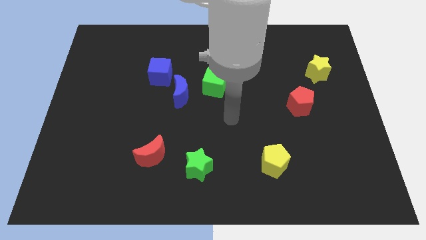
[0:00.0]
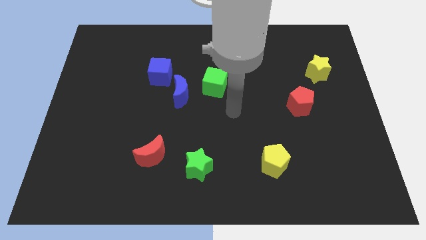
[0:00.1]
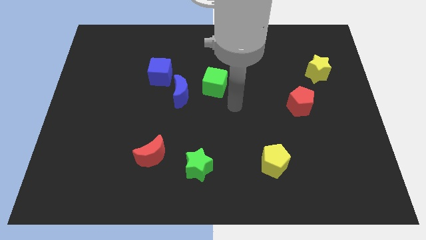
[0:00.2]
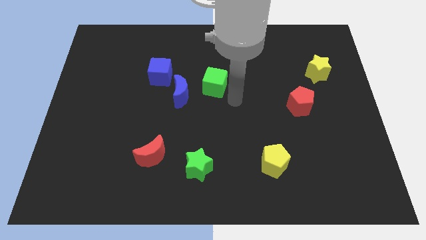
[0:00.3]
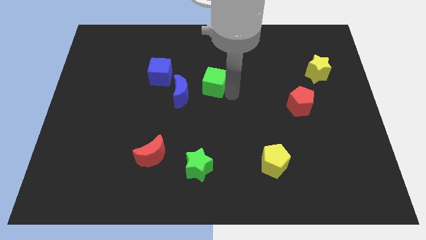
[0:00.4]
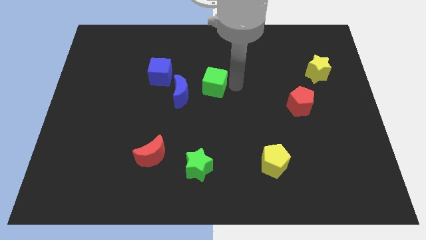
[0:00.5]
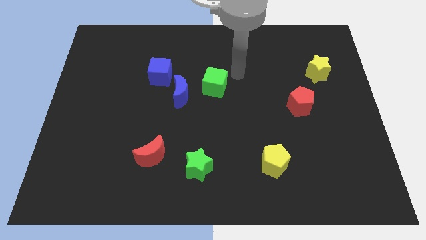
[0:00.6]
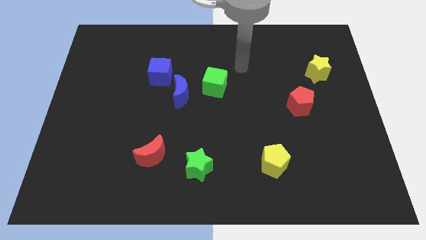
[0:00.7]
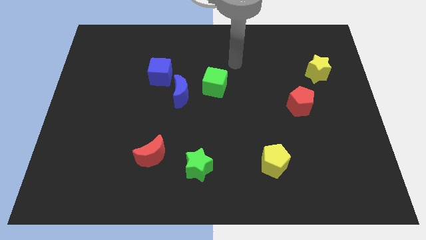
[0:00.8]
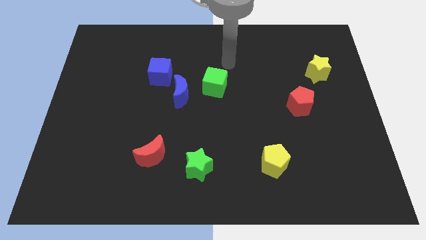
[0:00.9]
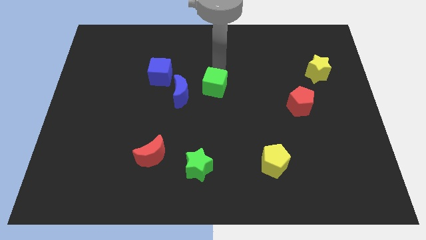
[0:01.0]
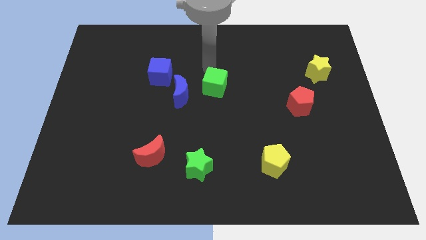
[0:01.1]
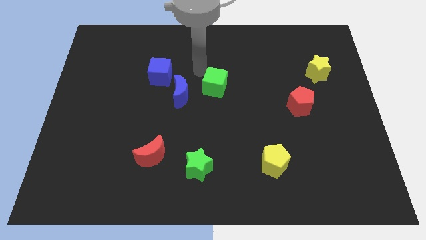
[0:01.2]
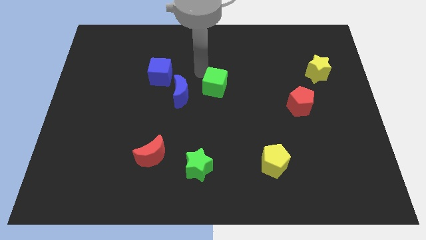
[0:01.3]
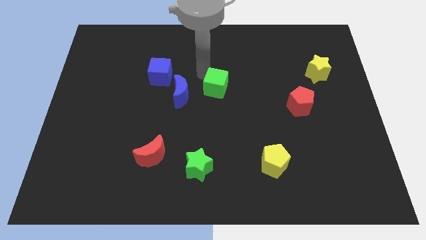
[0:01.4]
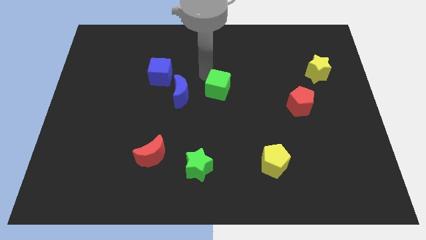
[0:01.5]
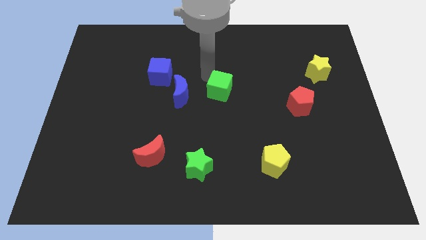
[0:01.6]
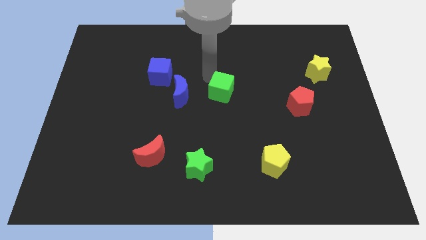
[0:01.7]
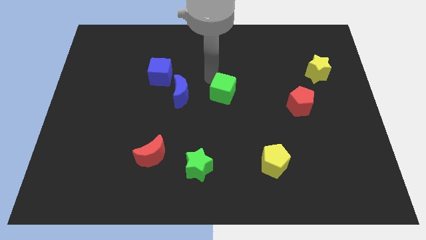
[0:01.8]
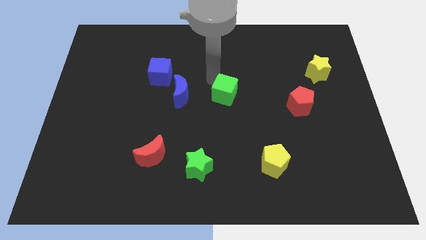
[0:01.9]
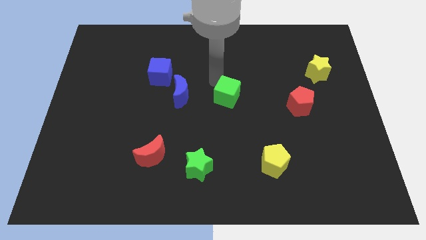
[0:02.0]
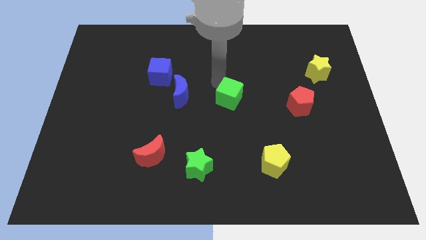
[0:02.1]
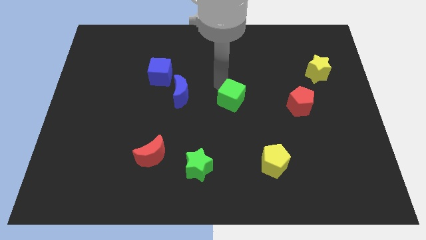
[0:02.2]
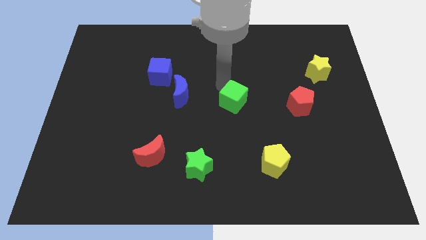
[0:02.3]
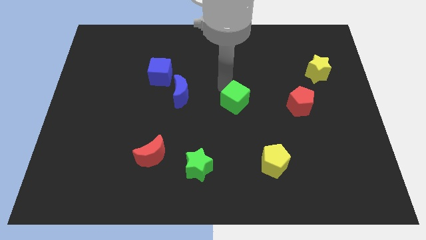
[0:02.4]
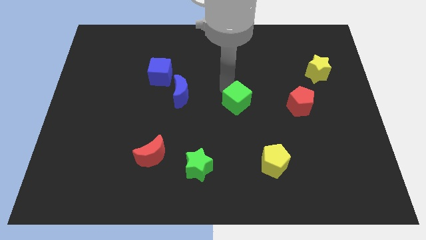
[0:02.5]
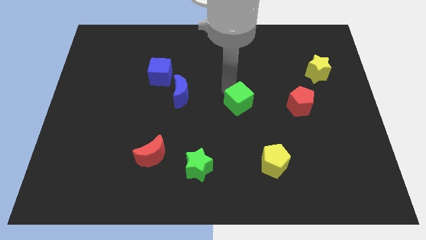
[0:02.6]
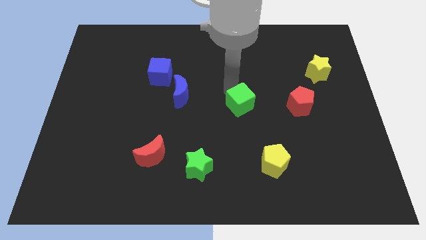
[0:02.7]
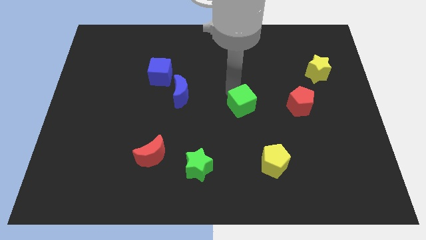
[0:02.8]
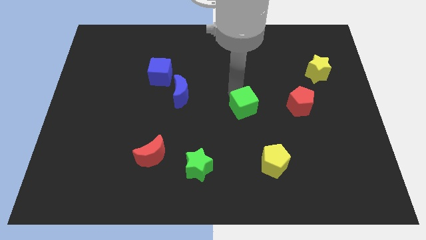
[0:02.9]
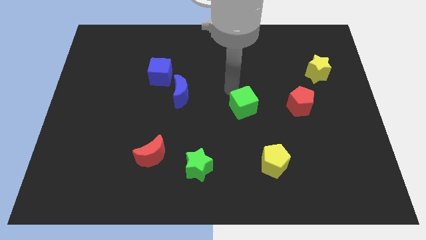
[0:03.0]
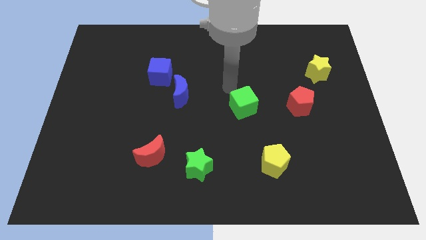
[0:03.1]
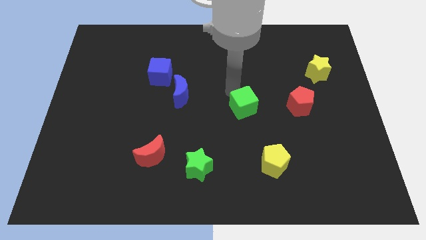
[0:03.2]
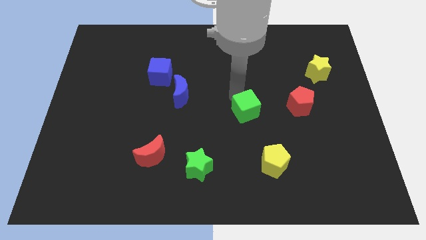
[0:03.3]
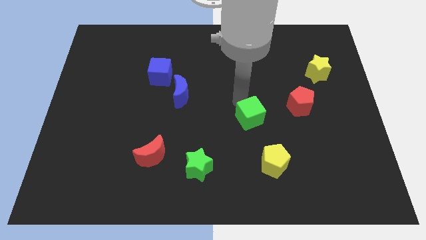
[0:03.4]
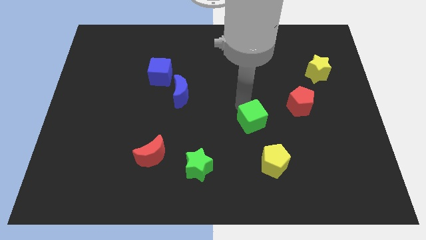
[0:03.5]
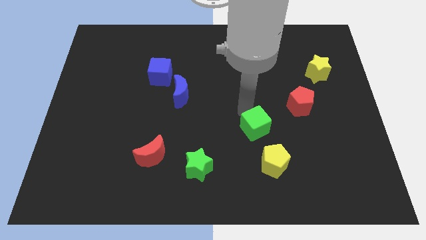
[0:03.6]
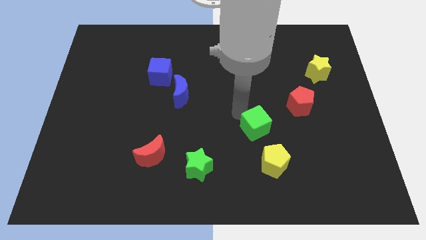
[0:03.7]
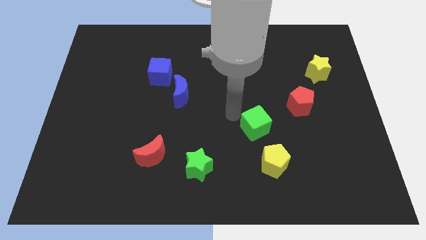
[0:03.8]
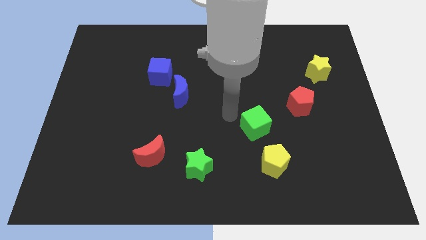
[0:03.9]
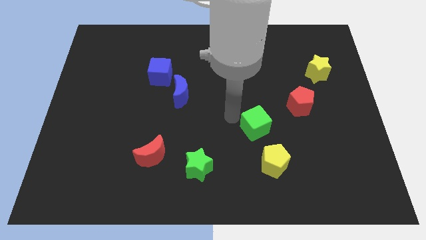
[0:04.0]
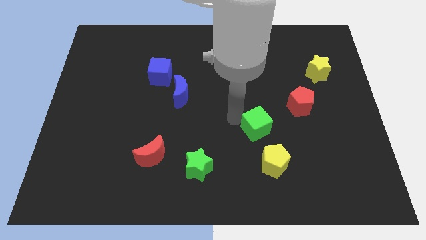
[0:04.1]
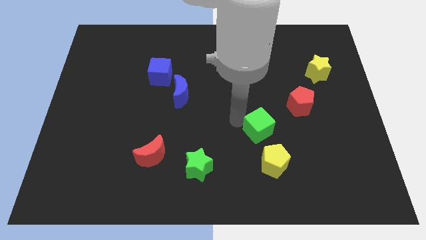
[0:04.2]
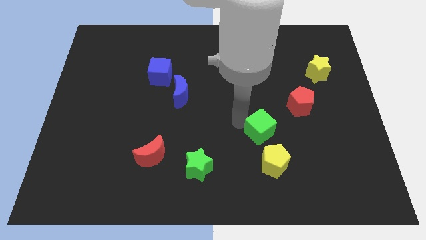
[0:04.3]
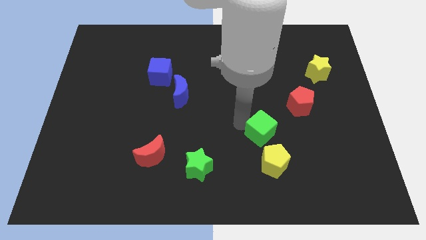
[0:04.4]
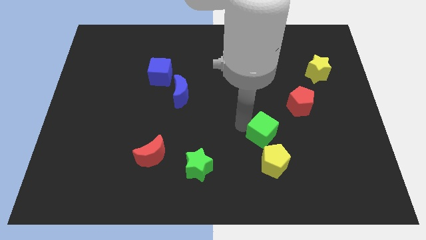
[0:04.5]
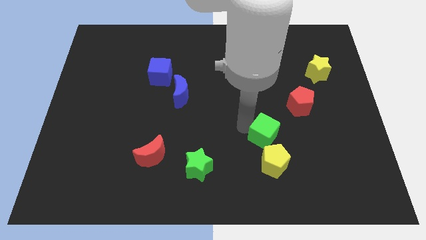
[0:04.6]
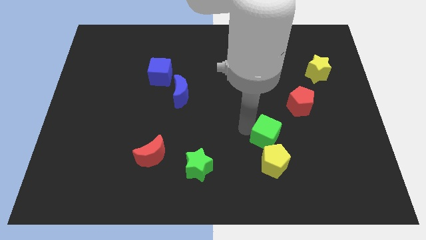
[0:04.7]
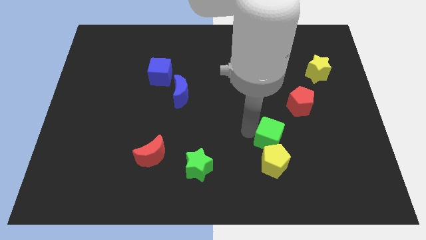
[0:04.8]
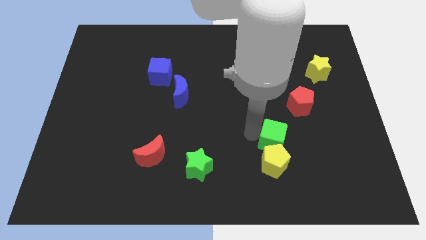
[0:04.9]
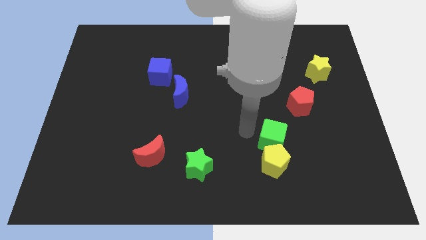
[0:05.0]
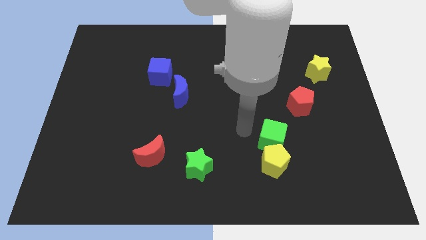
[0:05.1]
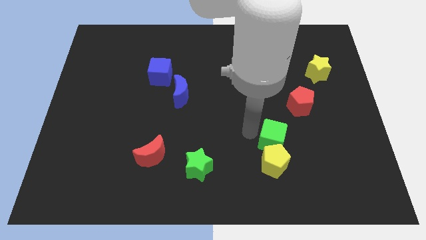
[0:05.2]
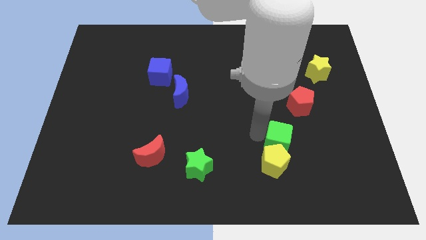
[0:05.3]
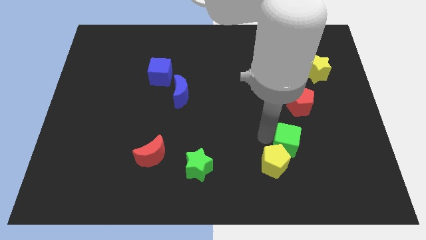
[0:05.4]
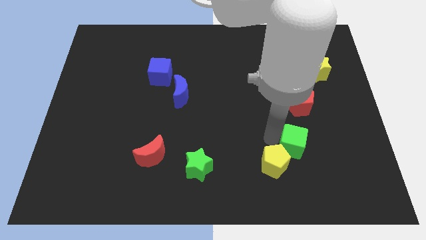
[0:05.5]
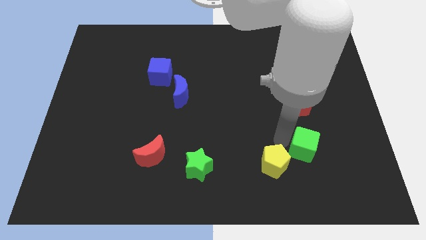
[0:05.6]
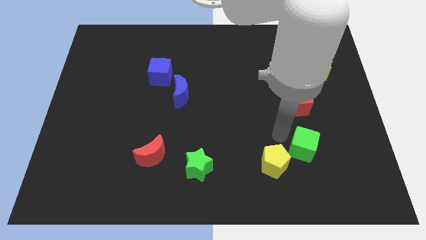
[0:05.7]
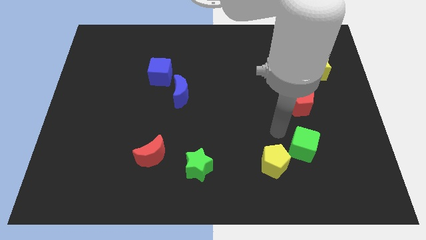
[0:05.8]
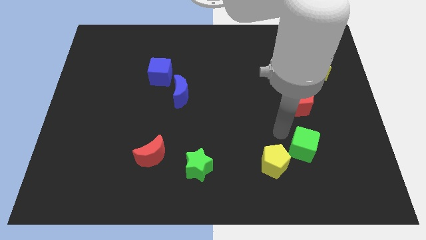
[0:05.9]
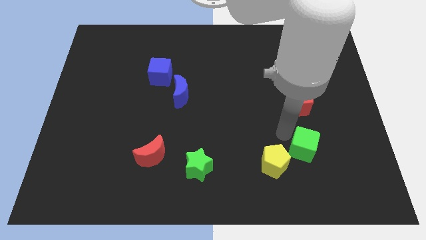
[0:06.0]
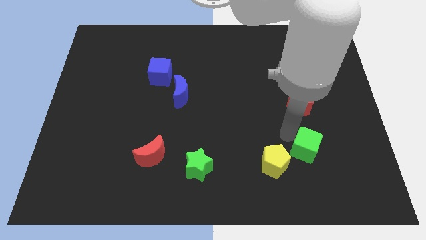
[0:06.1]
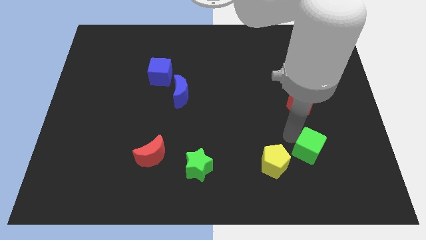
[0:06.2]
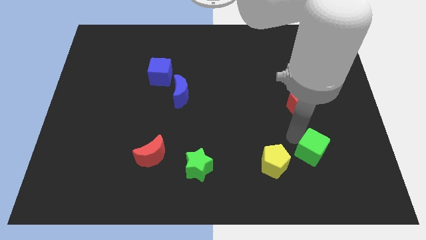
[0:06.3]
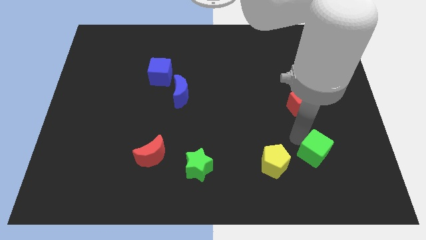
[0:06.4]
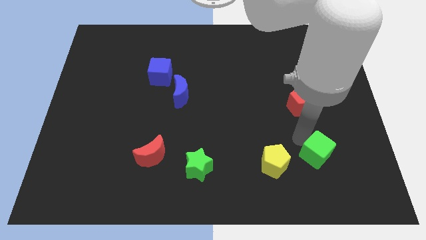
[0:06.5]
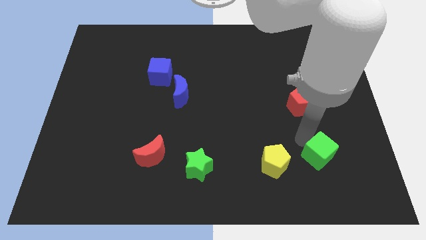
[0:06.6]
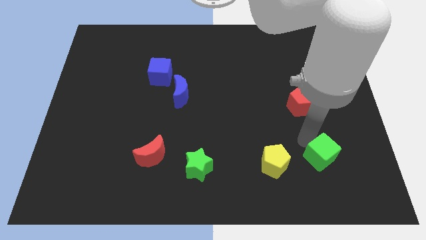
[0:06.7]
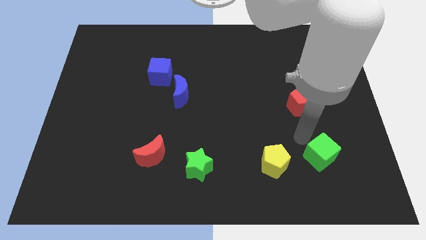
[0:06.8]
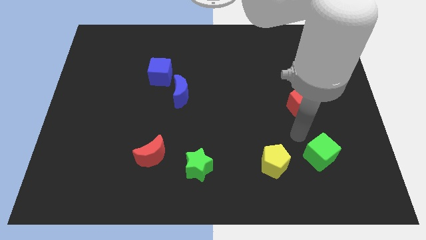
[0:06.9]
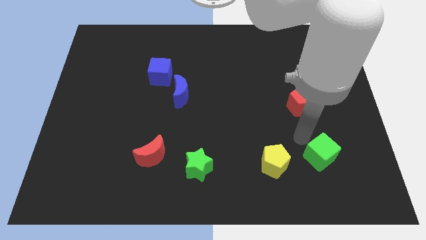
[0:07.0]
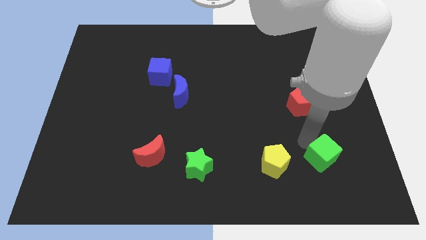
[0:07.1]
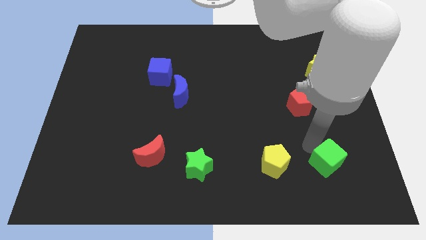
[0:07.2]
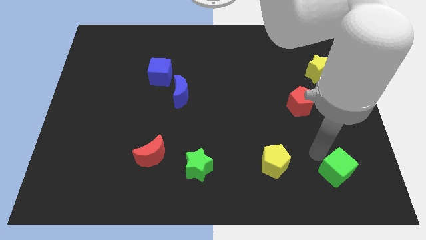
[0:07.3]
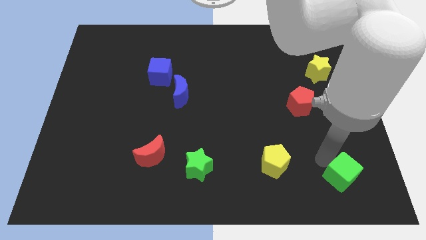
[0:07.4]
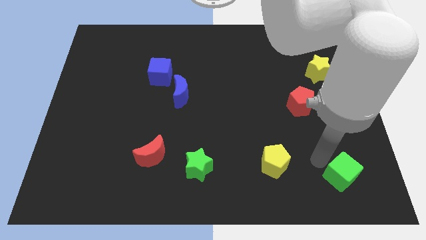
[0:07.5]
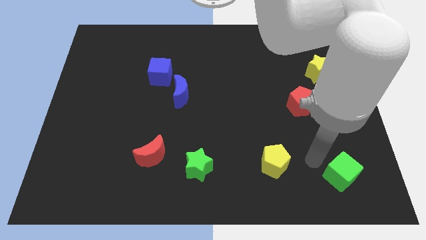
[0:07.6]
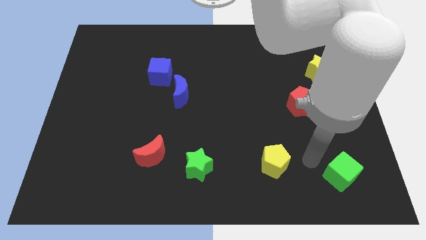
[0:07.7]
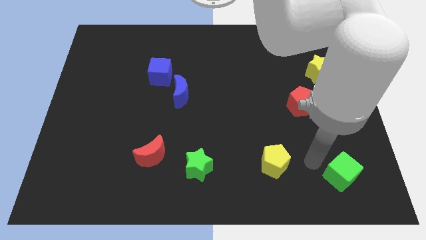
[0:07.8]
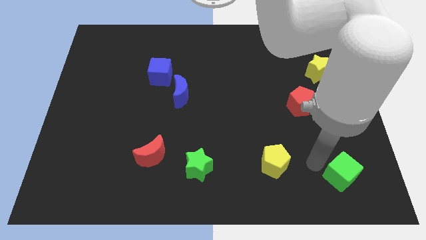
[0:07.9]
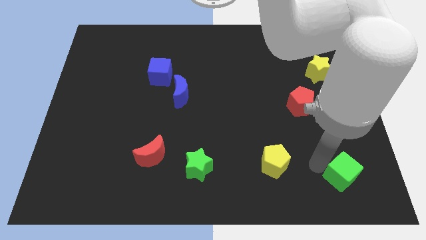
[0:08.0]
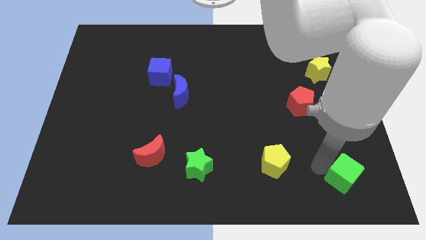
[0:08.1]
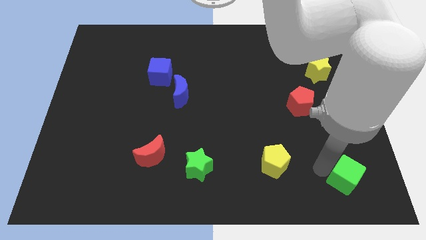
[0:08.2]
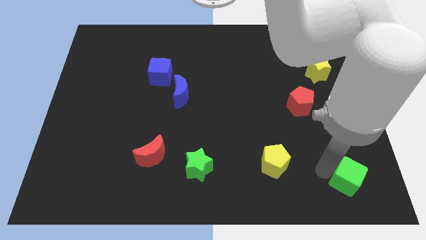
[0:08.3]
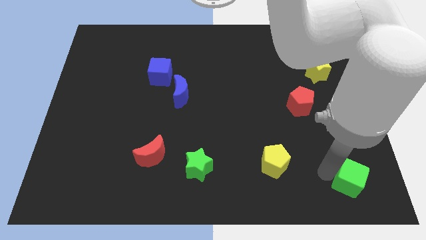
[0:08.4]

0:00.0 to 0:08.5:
move the green cube to the bottom right corner
